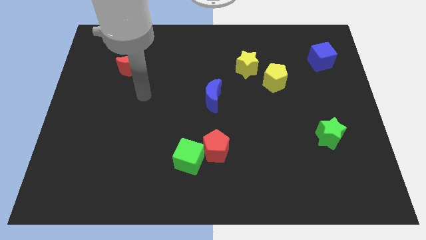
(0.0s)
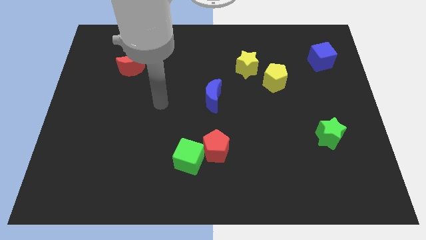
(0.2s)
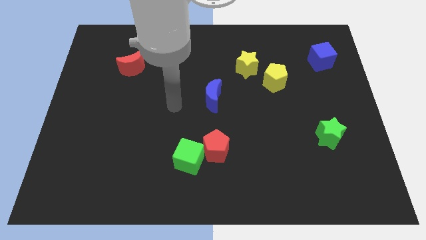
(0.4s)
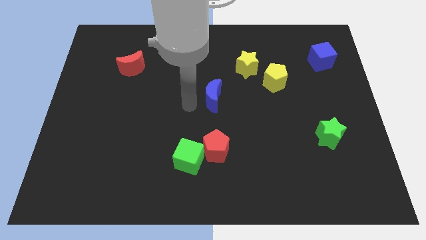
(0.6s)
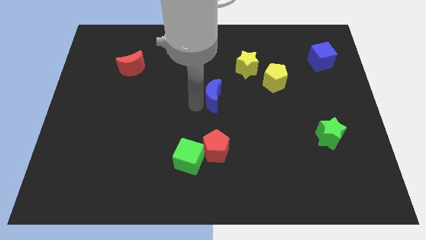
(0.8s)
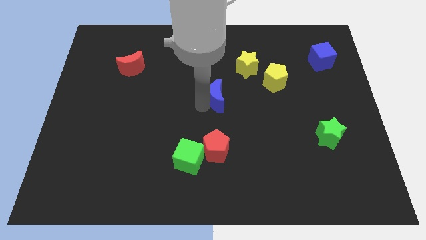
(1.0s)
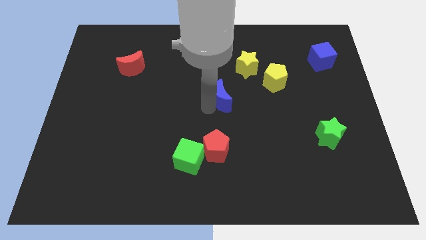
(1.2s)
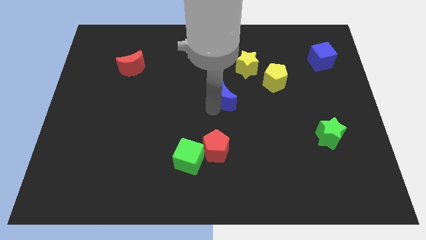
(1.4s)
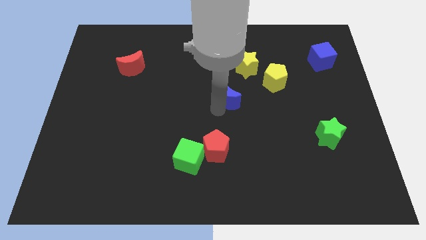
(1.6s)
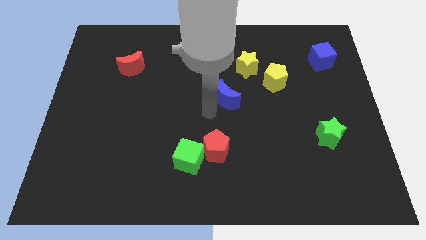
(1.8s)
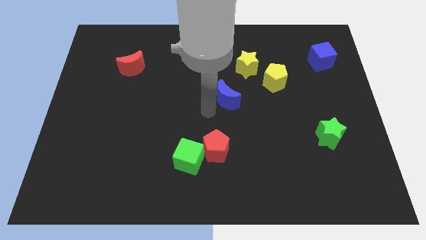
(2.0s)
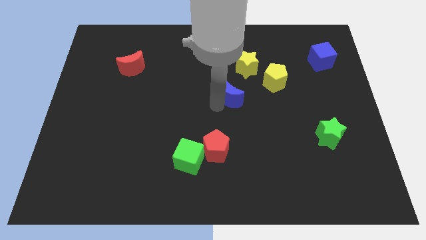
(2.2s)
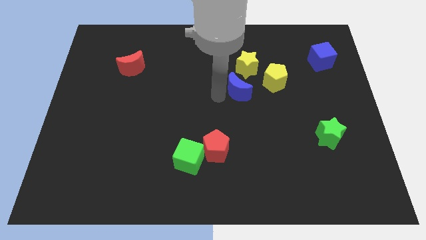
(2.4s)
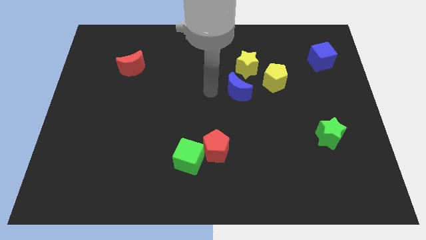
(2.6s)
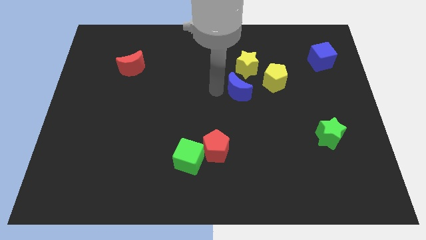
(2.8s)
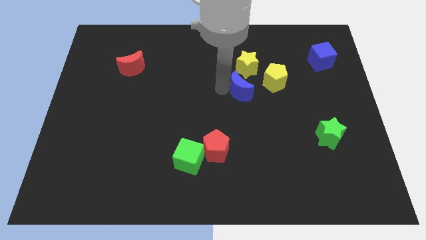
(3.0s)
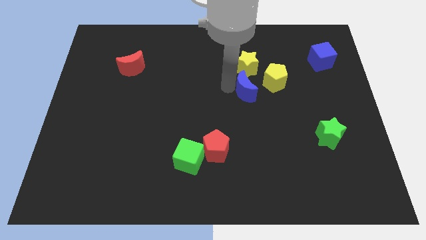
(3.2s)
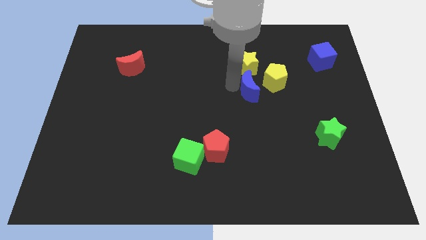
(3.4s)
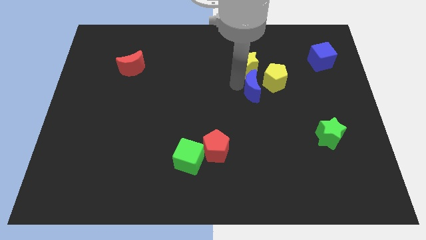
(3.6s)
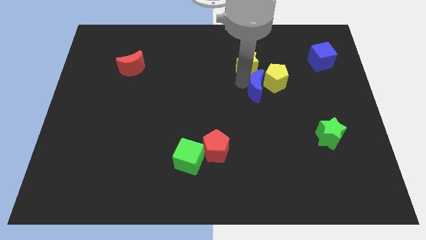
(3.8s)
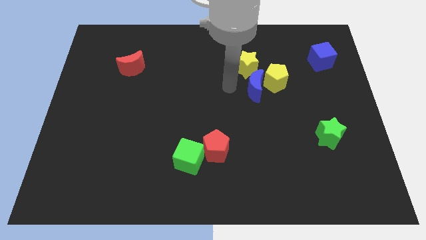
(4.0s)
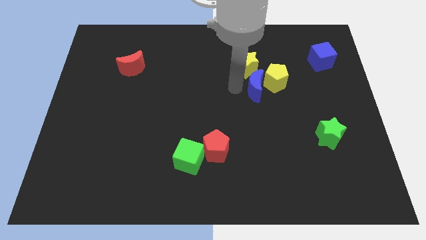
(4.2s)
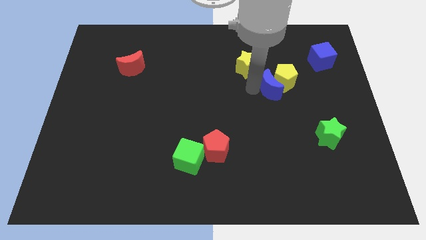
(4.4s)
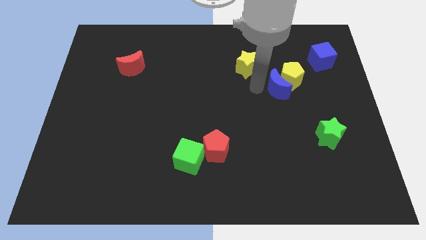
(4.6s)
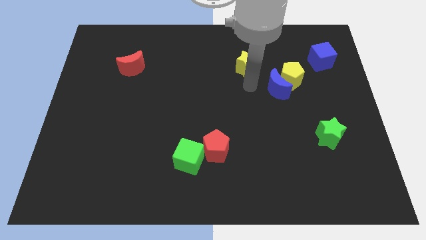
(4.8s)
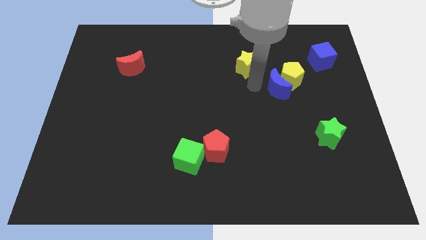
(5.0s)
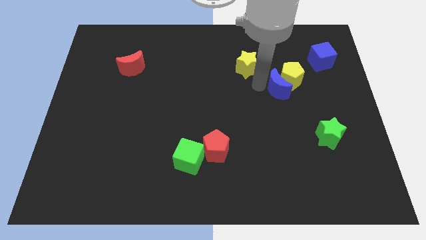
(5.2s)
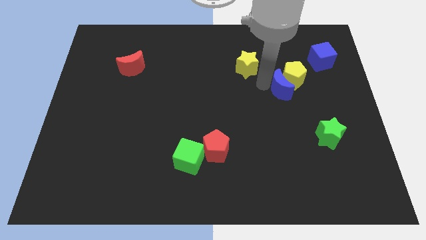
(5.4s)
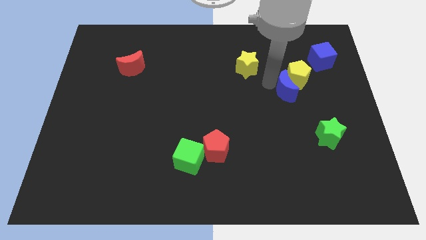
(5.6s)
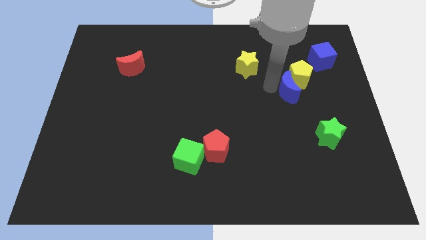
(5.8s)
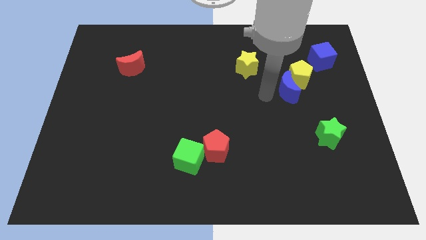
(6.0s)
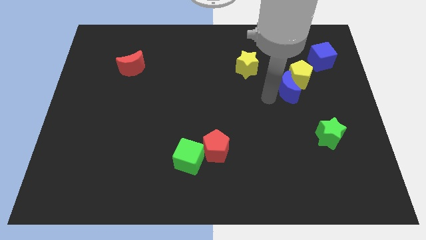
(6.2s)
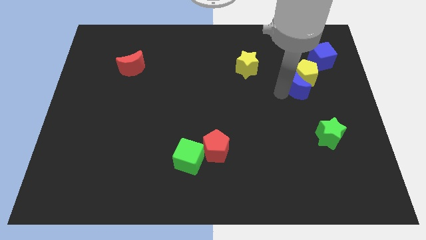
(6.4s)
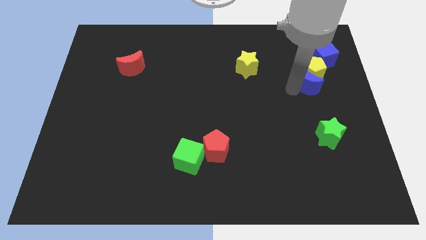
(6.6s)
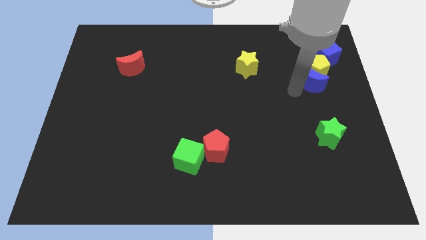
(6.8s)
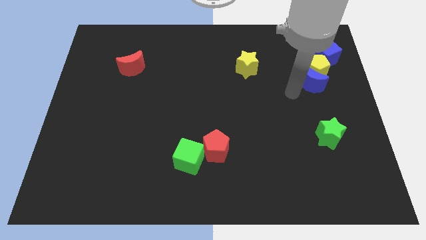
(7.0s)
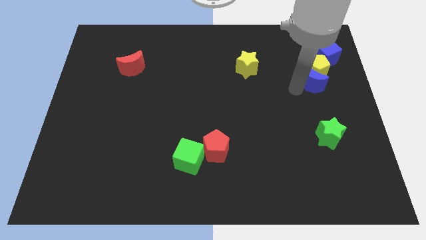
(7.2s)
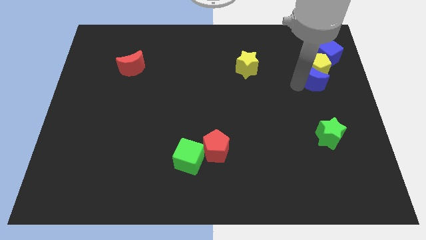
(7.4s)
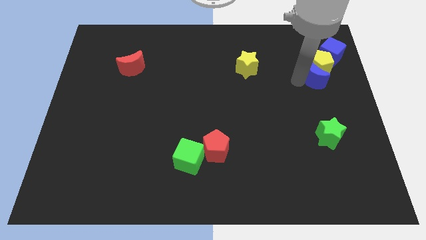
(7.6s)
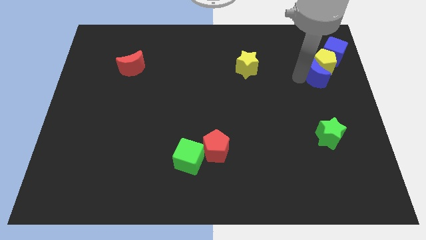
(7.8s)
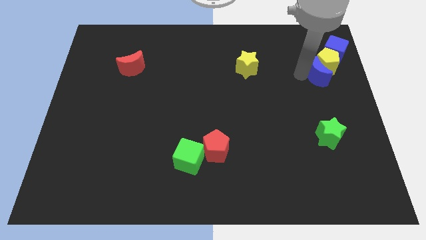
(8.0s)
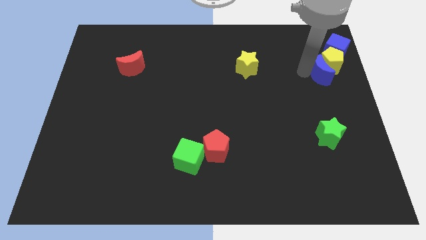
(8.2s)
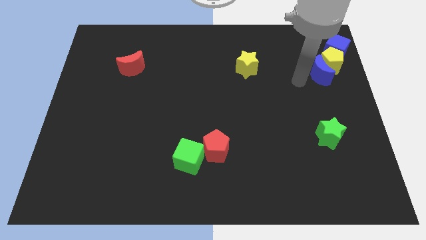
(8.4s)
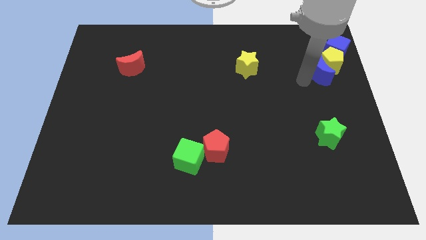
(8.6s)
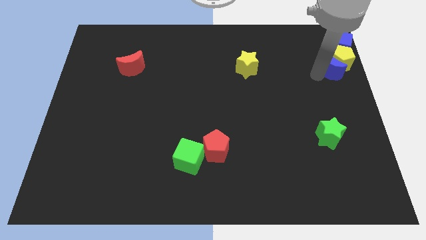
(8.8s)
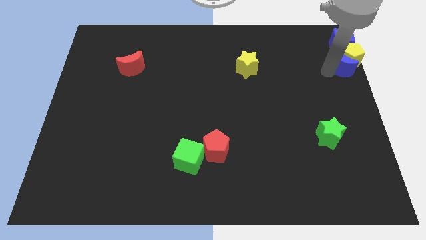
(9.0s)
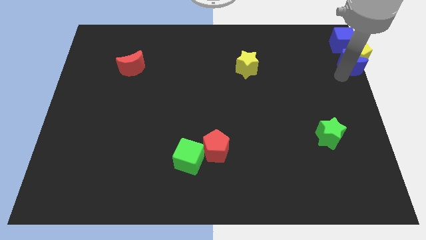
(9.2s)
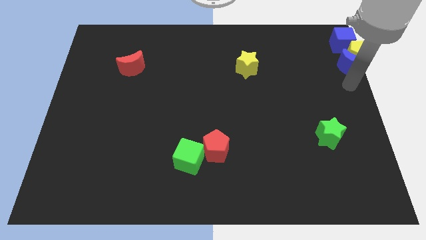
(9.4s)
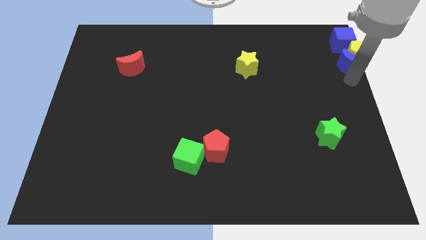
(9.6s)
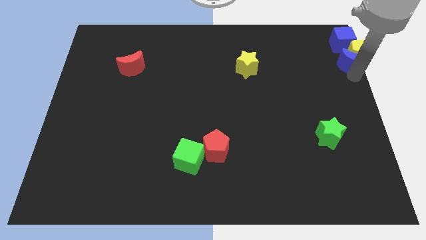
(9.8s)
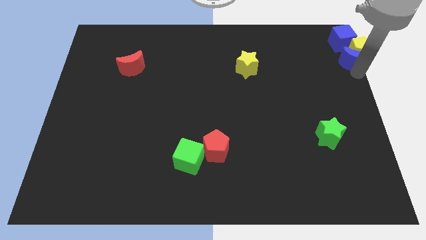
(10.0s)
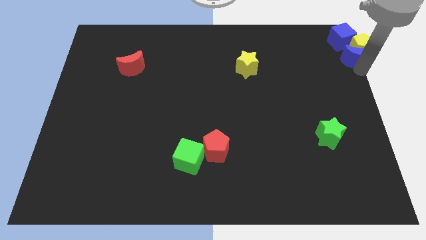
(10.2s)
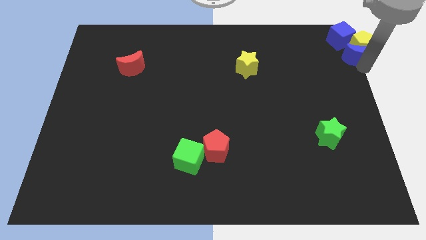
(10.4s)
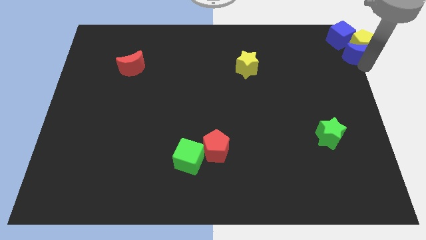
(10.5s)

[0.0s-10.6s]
put the blue moon to the top right

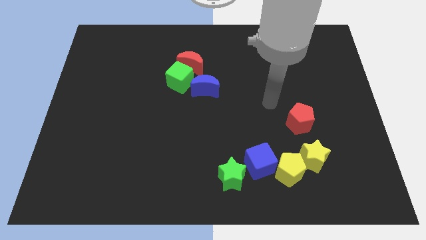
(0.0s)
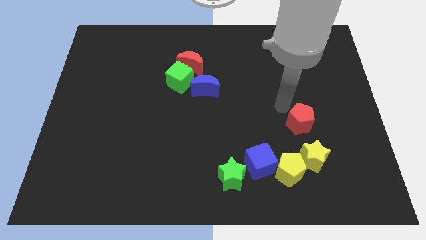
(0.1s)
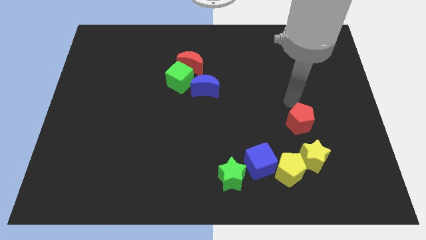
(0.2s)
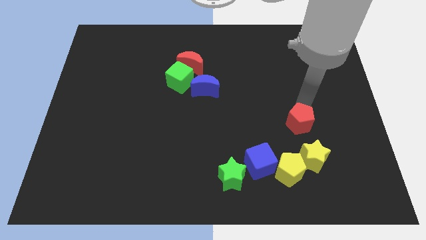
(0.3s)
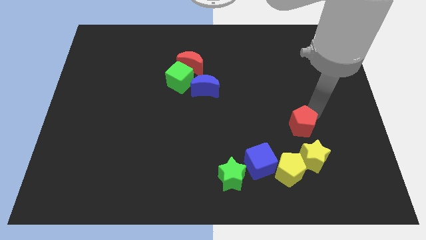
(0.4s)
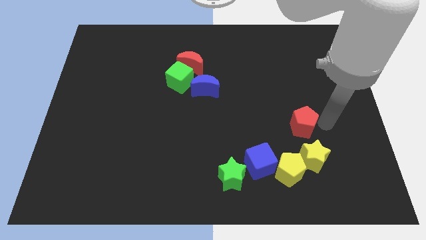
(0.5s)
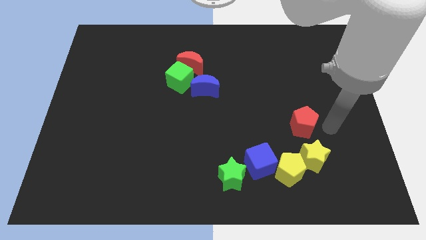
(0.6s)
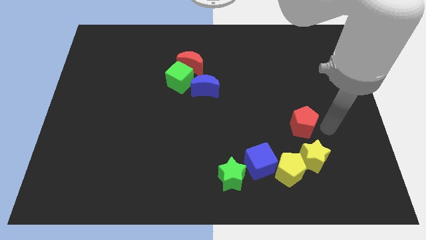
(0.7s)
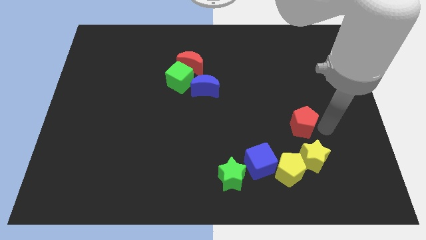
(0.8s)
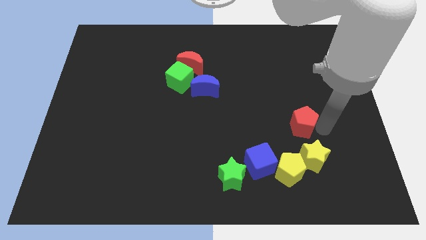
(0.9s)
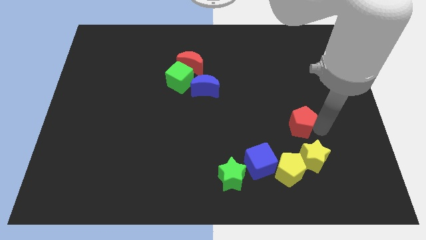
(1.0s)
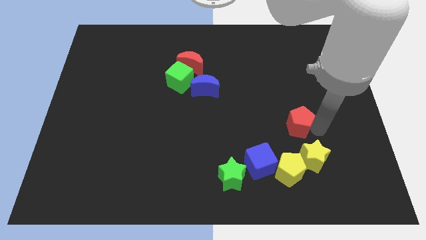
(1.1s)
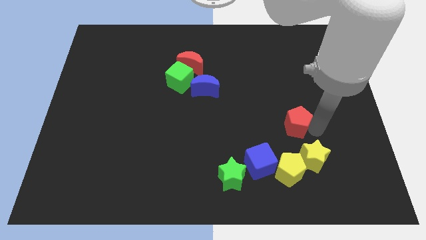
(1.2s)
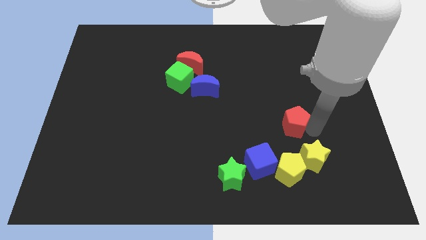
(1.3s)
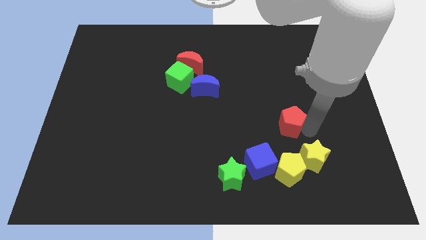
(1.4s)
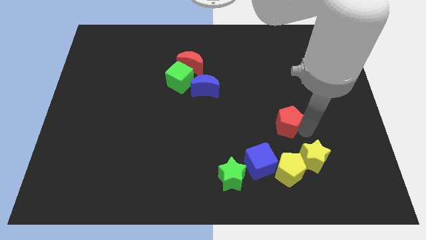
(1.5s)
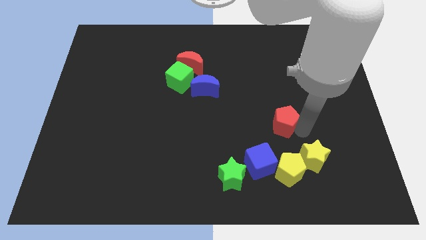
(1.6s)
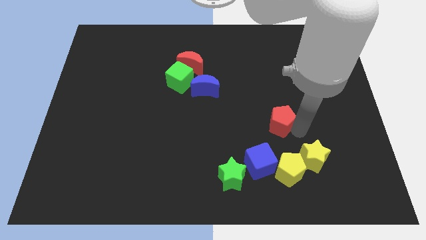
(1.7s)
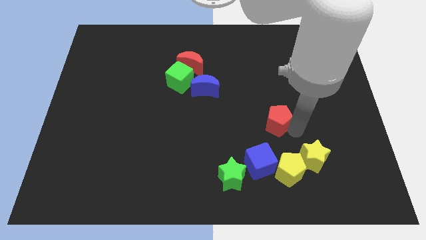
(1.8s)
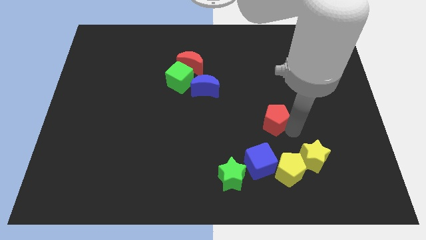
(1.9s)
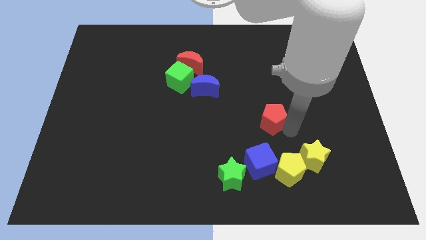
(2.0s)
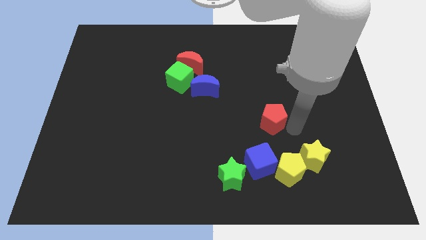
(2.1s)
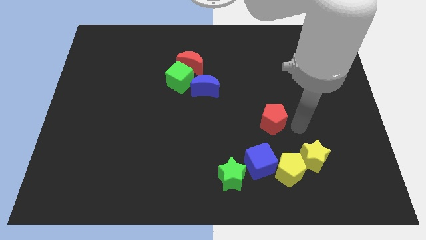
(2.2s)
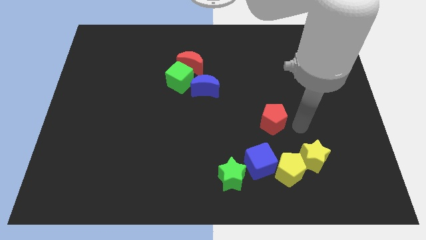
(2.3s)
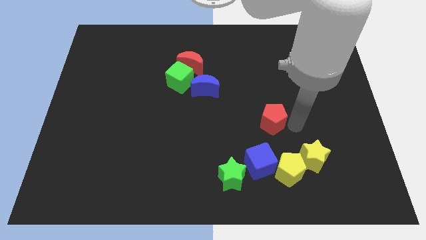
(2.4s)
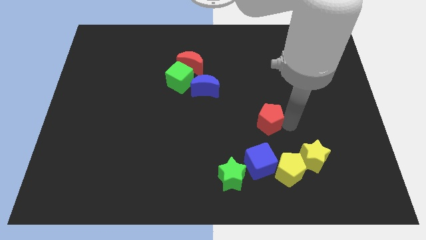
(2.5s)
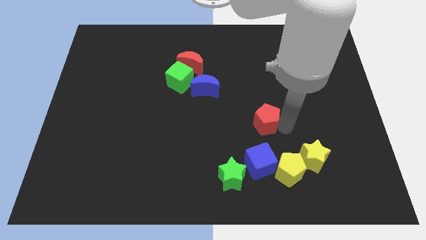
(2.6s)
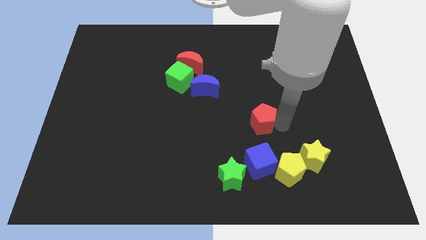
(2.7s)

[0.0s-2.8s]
move the red pentagon to the center
